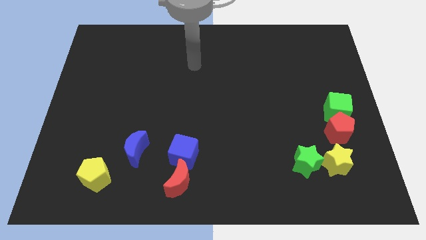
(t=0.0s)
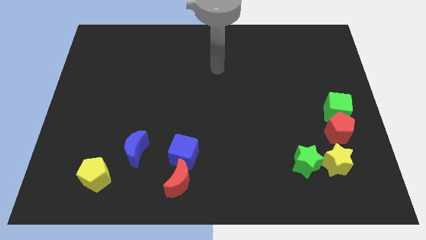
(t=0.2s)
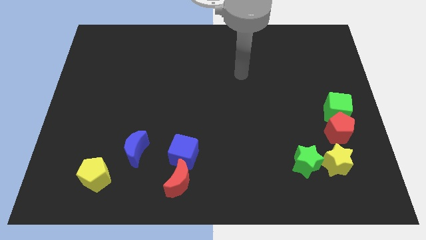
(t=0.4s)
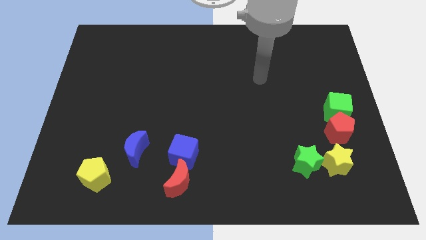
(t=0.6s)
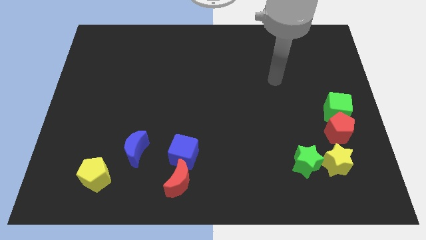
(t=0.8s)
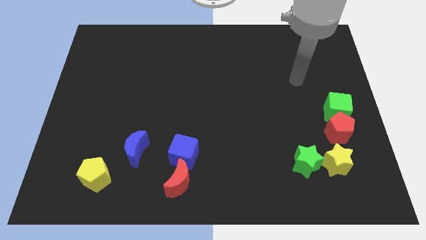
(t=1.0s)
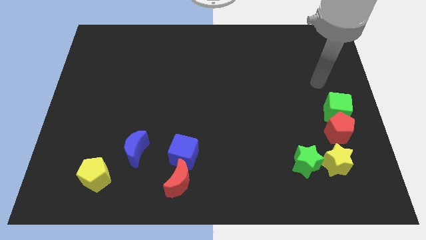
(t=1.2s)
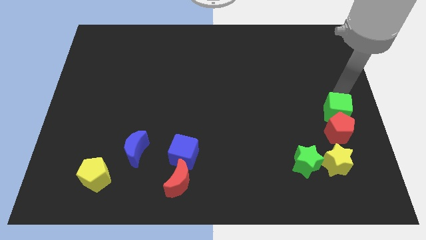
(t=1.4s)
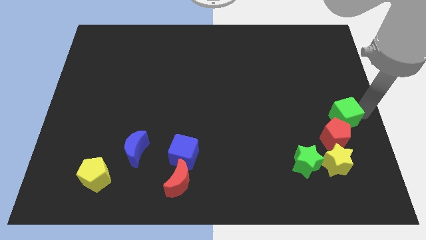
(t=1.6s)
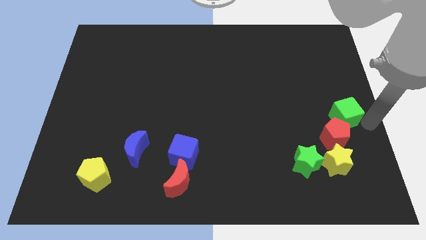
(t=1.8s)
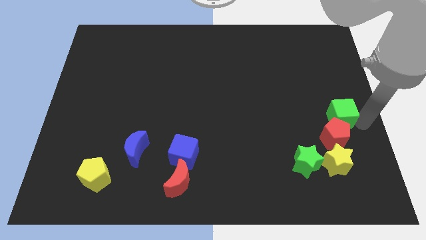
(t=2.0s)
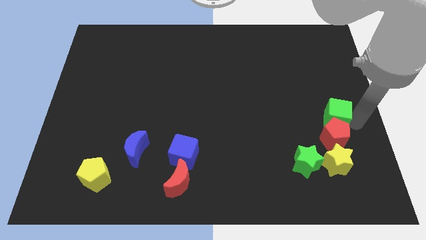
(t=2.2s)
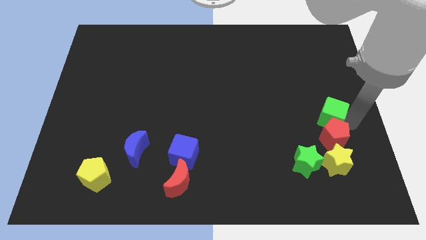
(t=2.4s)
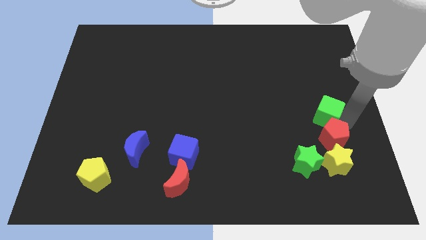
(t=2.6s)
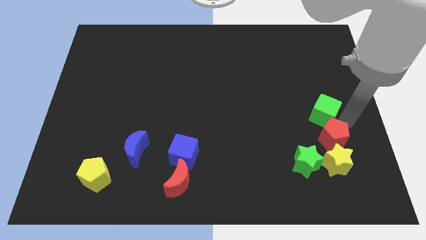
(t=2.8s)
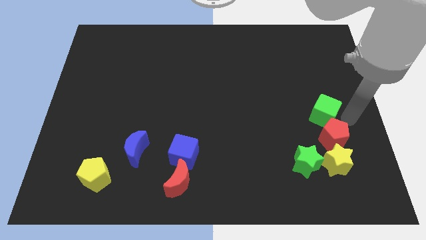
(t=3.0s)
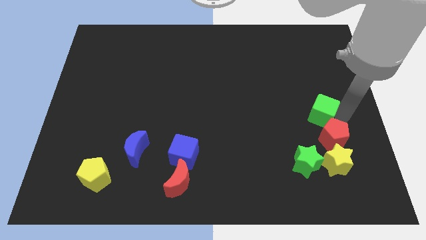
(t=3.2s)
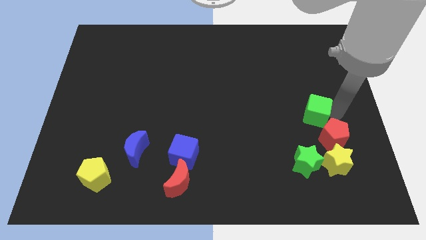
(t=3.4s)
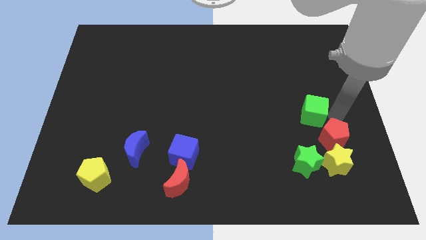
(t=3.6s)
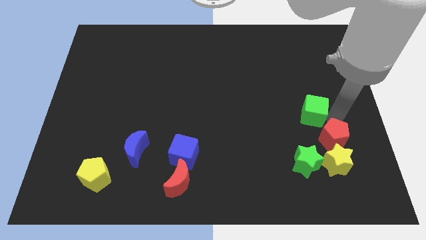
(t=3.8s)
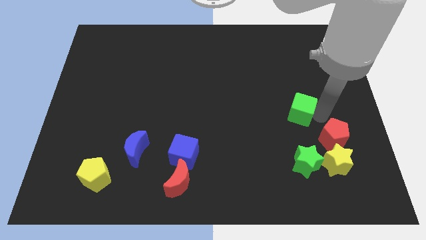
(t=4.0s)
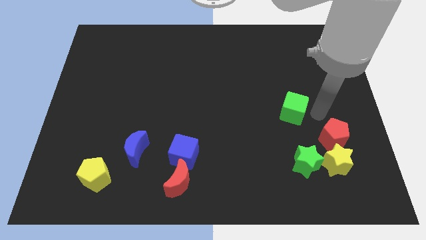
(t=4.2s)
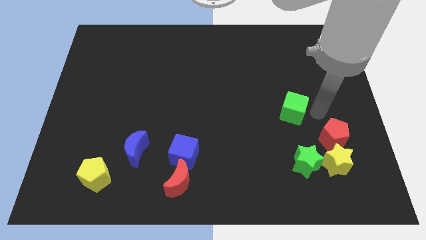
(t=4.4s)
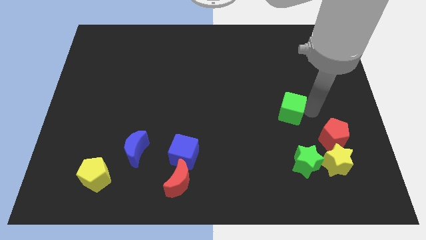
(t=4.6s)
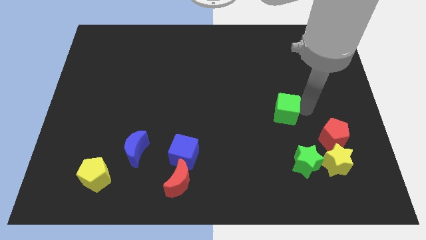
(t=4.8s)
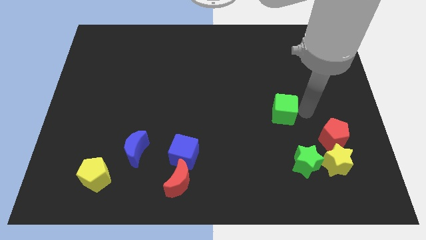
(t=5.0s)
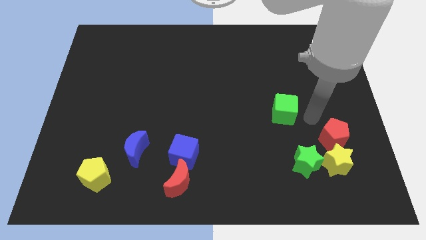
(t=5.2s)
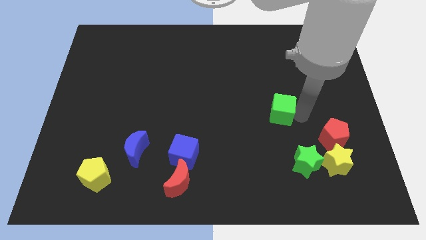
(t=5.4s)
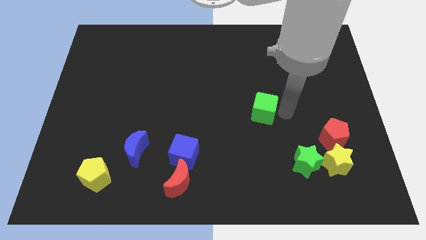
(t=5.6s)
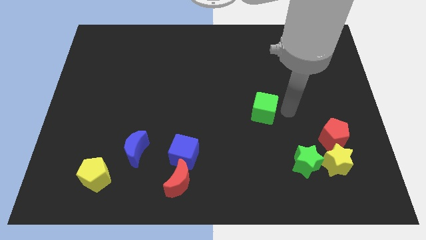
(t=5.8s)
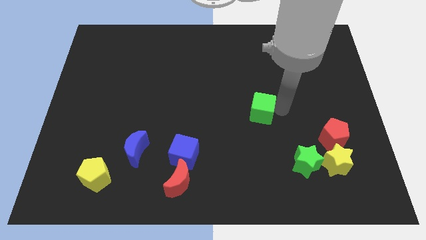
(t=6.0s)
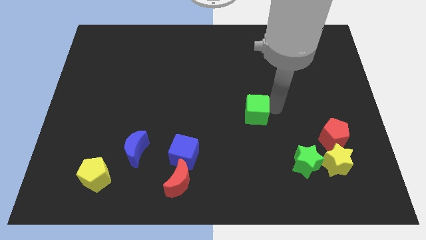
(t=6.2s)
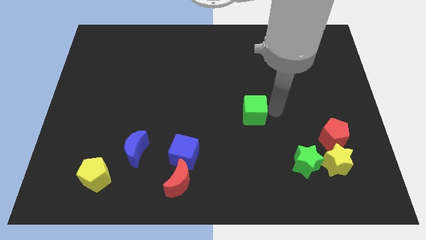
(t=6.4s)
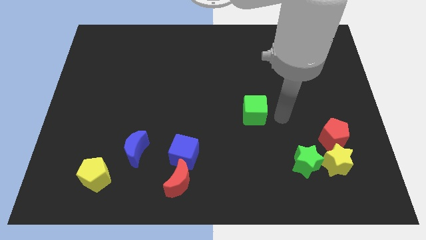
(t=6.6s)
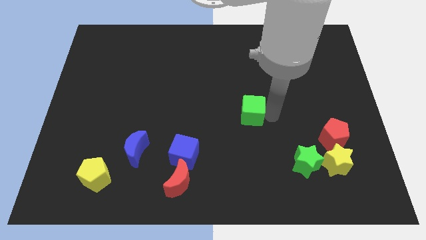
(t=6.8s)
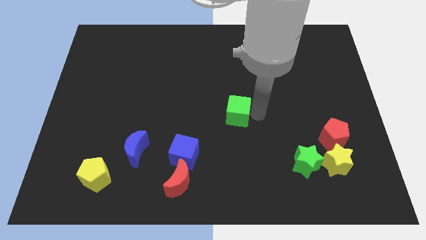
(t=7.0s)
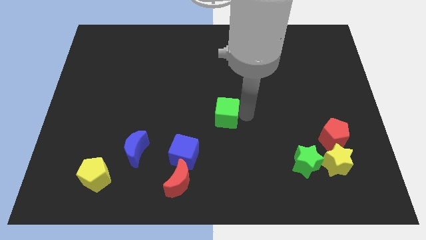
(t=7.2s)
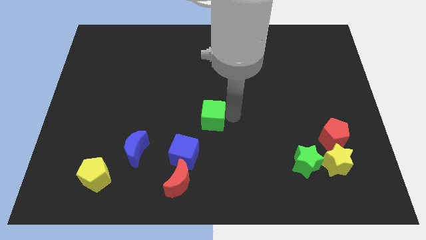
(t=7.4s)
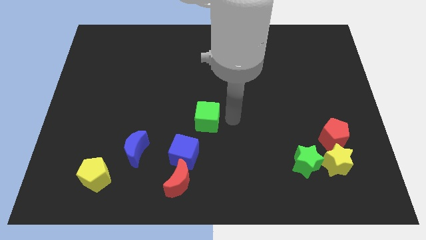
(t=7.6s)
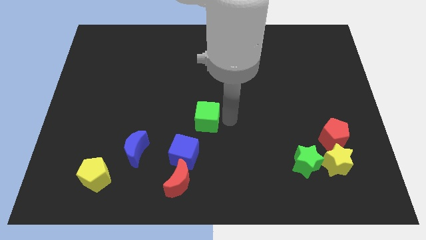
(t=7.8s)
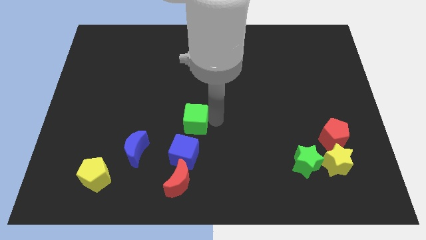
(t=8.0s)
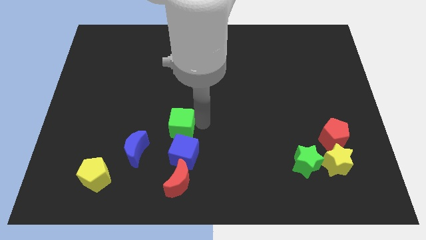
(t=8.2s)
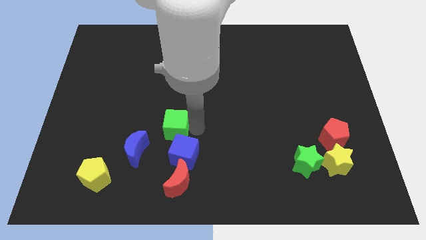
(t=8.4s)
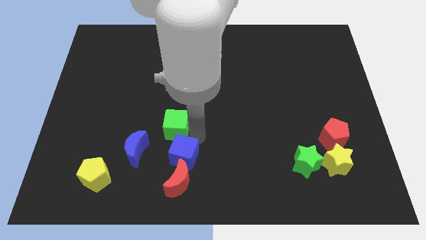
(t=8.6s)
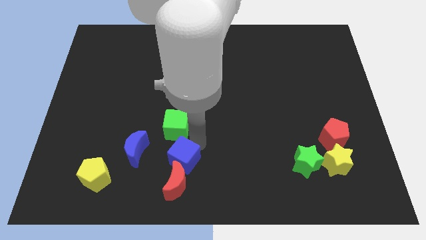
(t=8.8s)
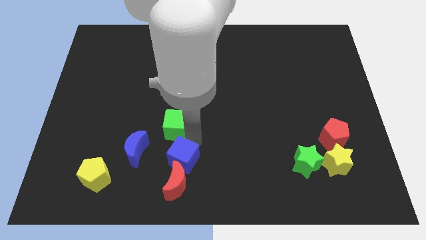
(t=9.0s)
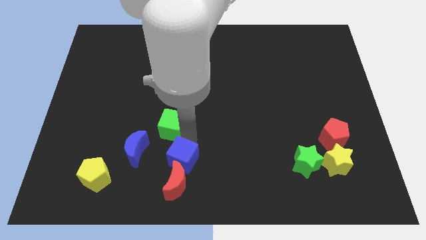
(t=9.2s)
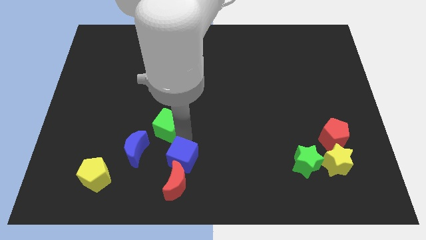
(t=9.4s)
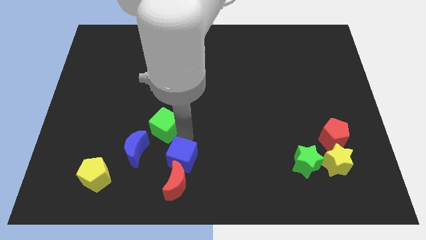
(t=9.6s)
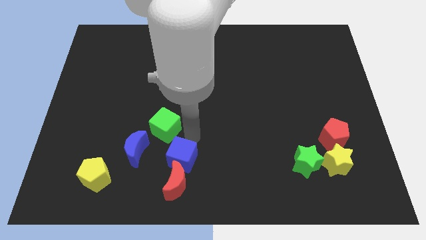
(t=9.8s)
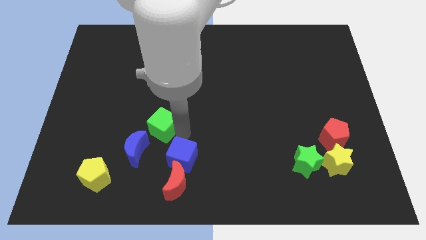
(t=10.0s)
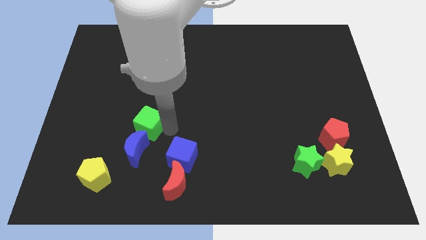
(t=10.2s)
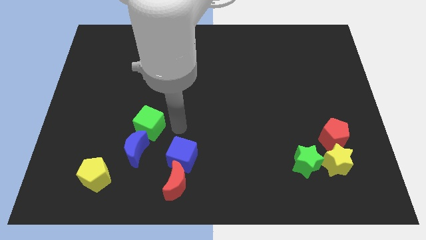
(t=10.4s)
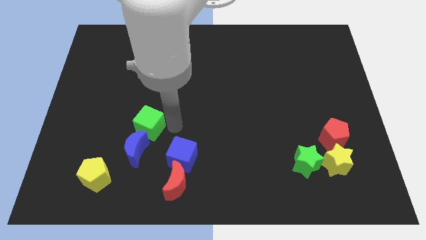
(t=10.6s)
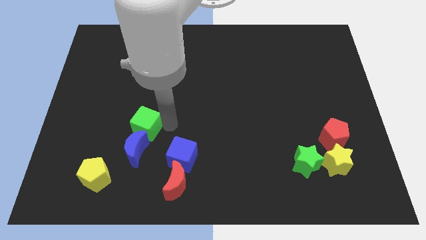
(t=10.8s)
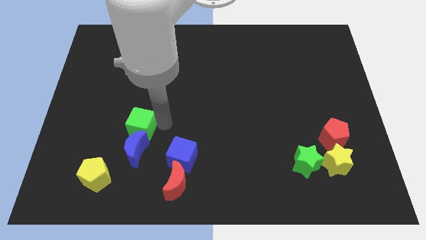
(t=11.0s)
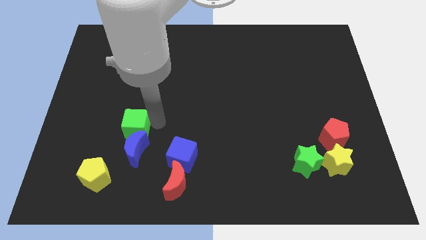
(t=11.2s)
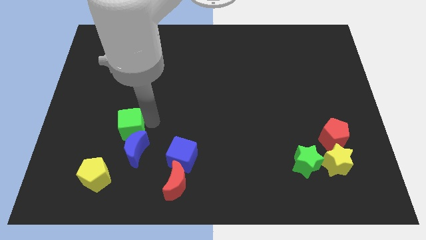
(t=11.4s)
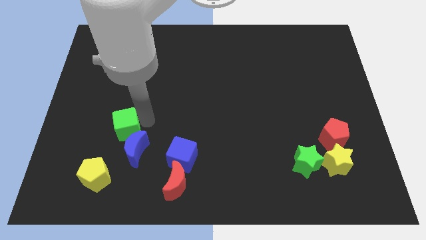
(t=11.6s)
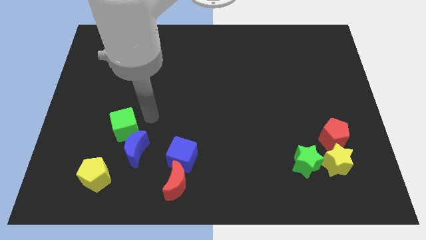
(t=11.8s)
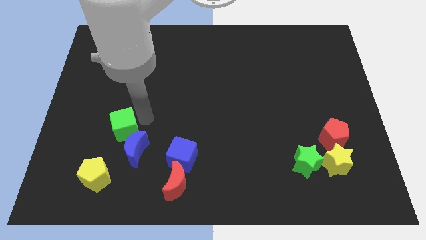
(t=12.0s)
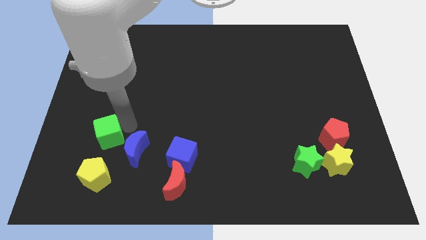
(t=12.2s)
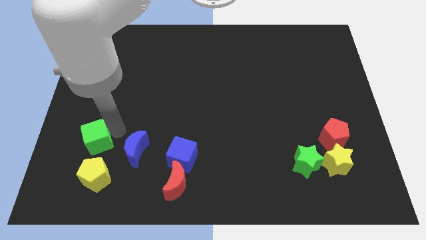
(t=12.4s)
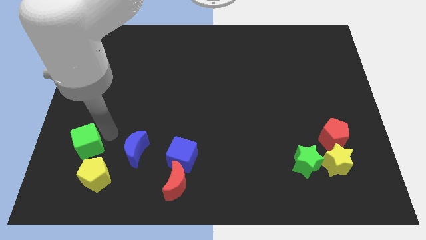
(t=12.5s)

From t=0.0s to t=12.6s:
push the green cube to the top left of the yellow pentagon

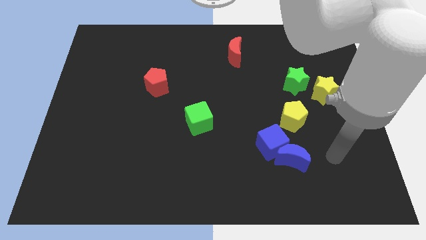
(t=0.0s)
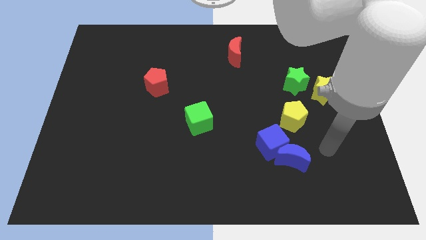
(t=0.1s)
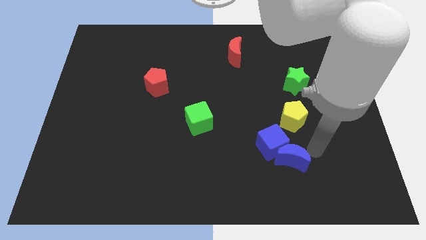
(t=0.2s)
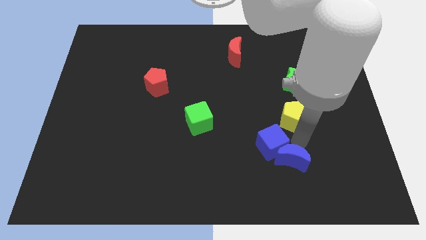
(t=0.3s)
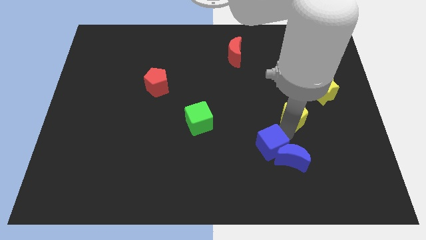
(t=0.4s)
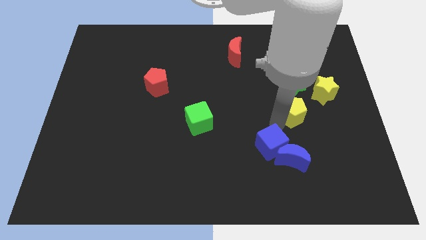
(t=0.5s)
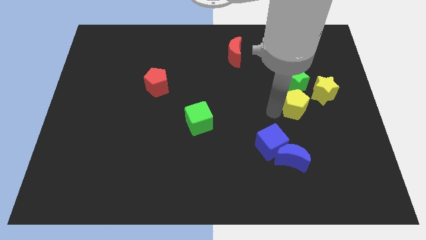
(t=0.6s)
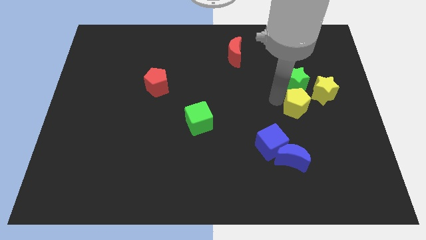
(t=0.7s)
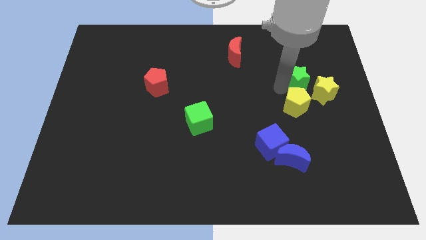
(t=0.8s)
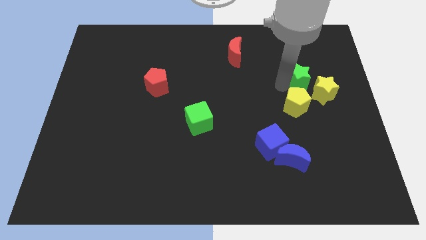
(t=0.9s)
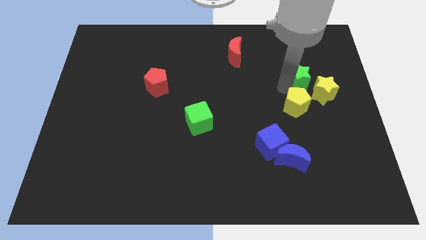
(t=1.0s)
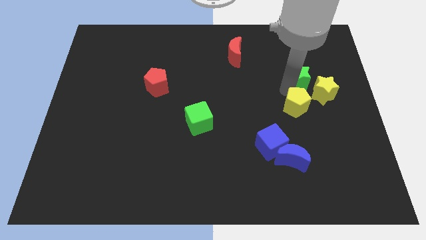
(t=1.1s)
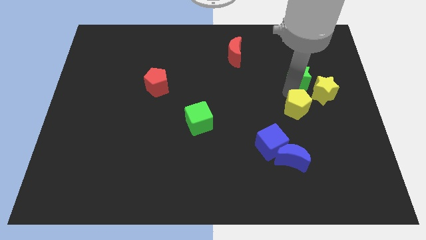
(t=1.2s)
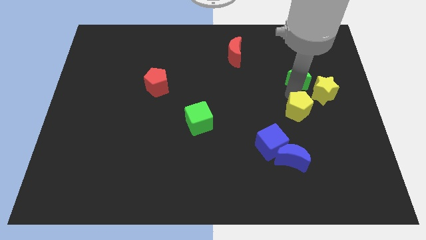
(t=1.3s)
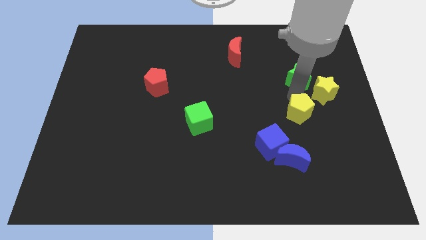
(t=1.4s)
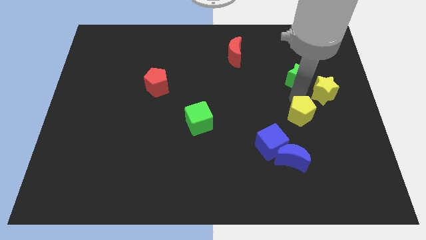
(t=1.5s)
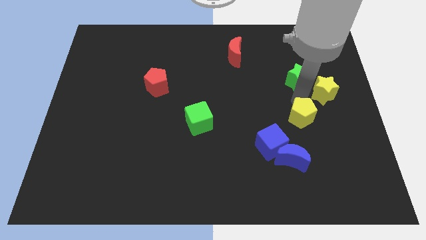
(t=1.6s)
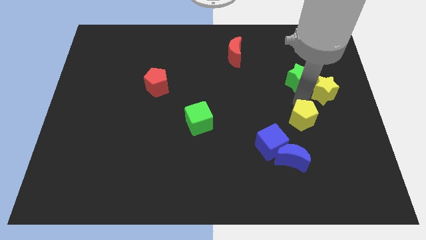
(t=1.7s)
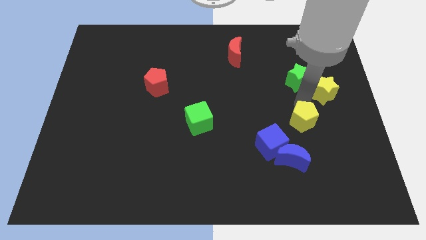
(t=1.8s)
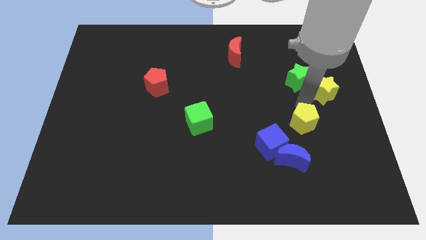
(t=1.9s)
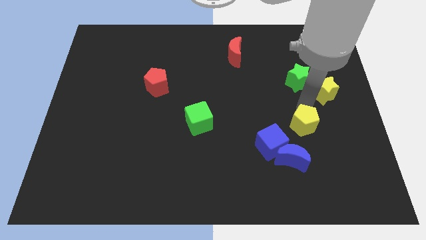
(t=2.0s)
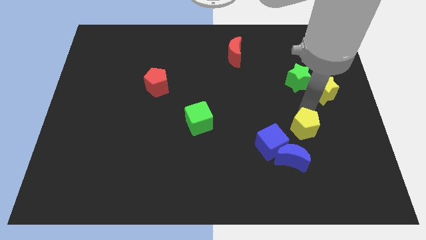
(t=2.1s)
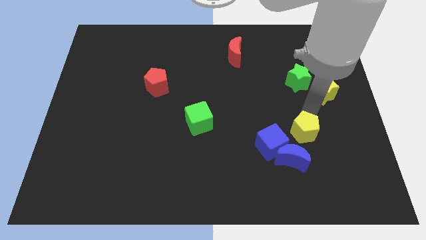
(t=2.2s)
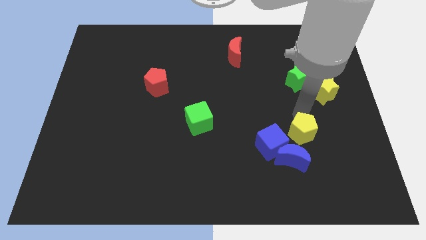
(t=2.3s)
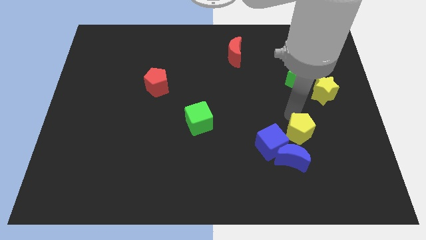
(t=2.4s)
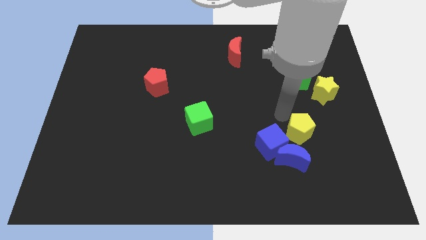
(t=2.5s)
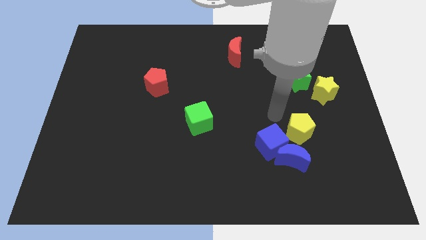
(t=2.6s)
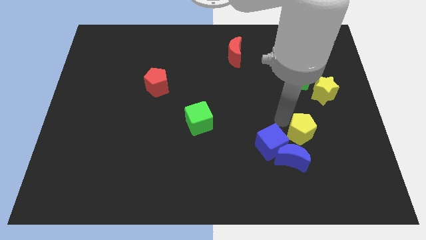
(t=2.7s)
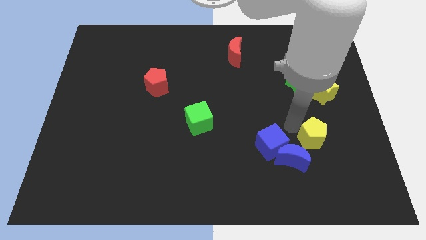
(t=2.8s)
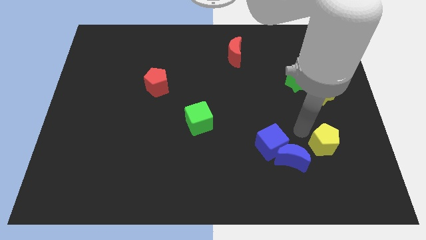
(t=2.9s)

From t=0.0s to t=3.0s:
slide the yellow pentagon to the right side of the blue moon
